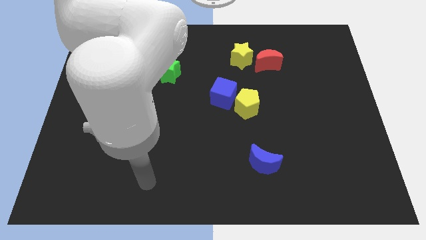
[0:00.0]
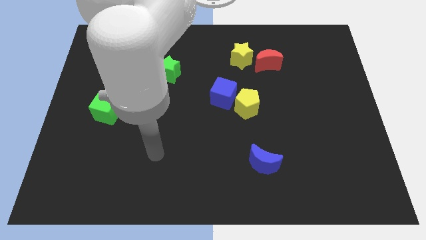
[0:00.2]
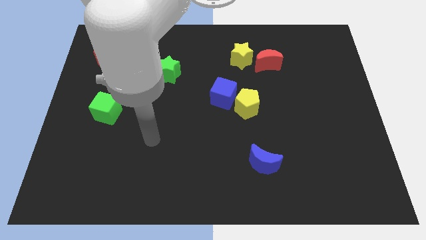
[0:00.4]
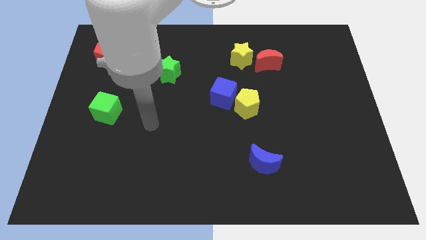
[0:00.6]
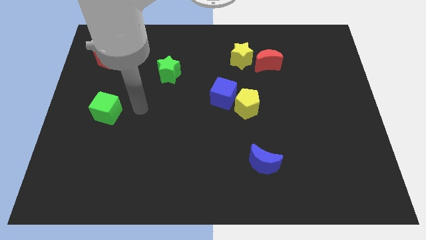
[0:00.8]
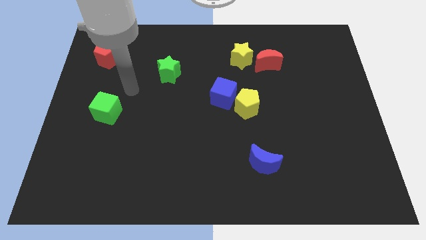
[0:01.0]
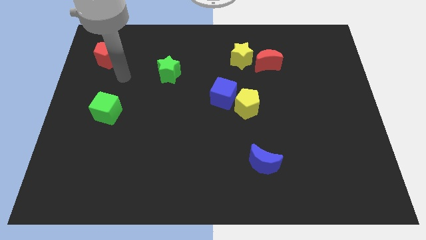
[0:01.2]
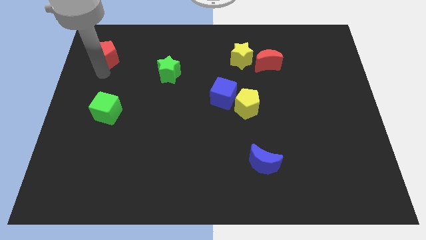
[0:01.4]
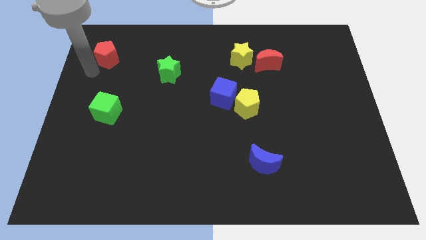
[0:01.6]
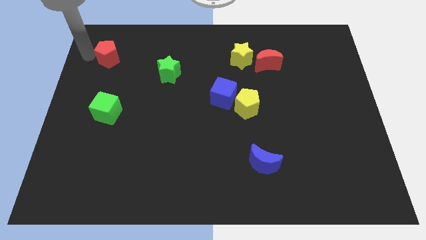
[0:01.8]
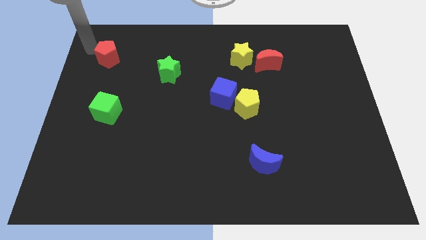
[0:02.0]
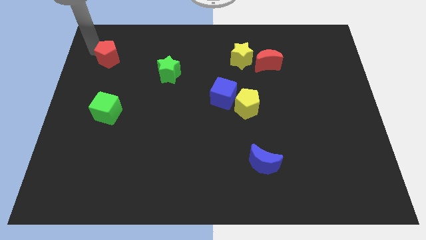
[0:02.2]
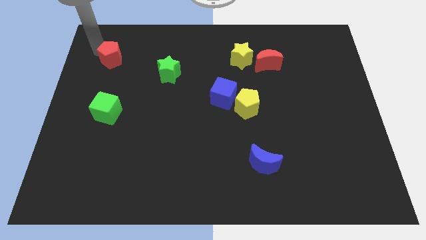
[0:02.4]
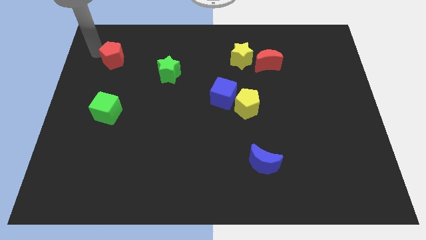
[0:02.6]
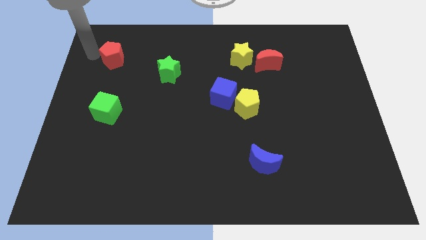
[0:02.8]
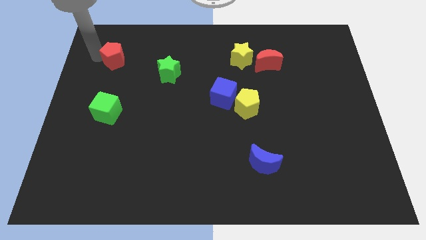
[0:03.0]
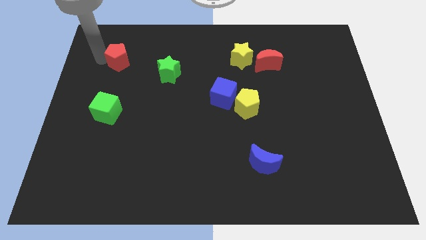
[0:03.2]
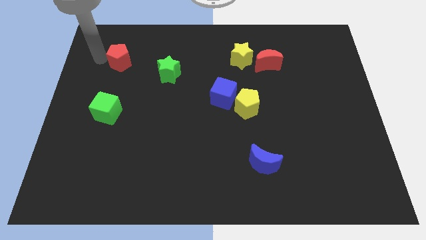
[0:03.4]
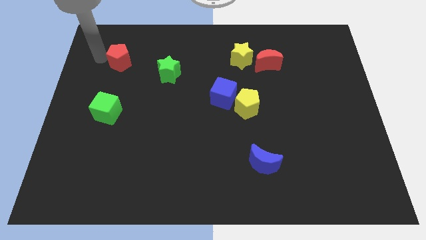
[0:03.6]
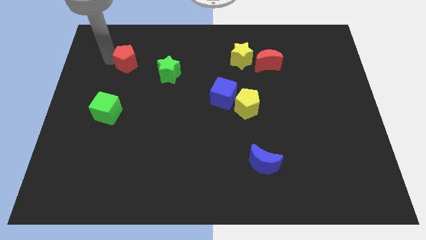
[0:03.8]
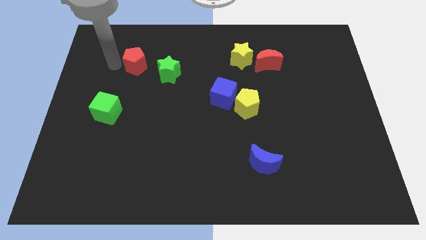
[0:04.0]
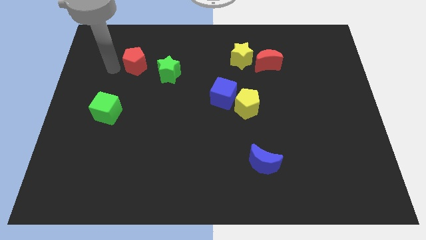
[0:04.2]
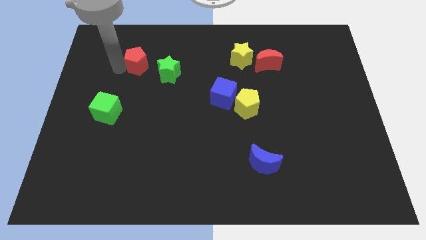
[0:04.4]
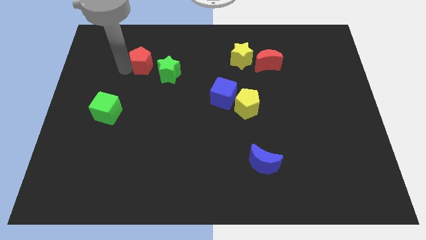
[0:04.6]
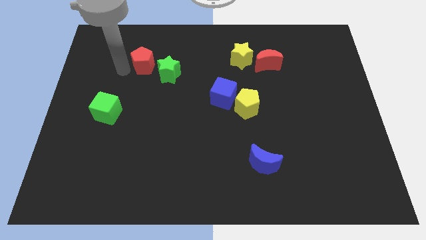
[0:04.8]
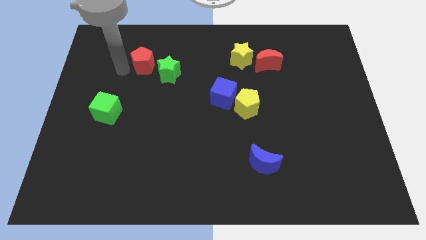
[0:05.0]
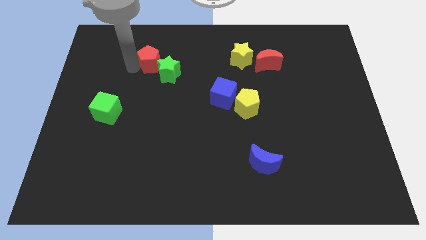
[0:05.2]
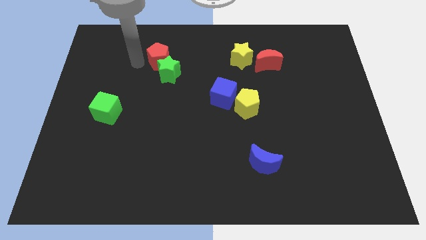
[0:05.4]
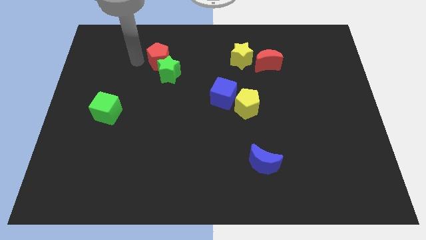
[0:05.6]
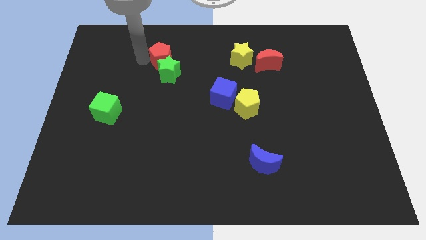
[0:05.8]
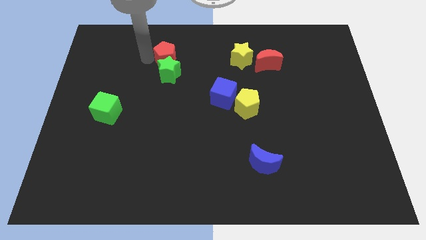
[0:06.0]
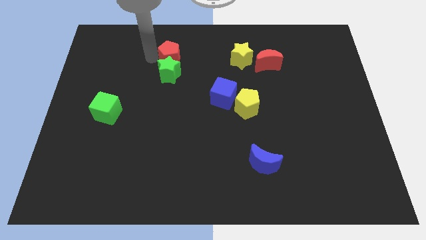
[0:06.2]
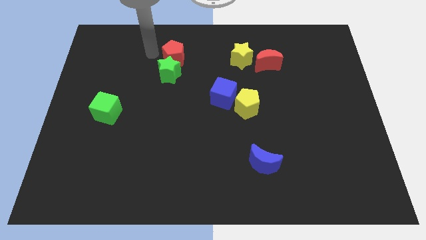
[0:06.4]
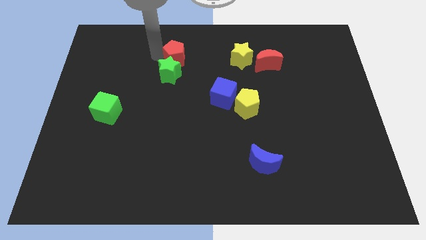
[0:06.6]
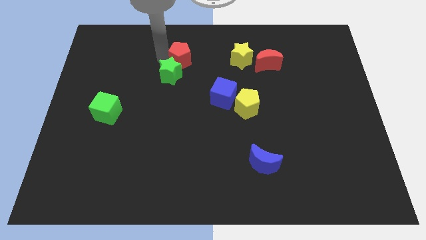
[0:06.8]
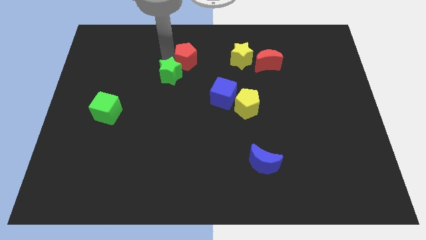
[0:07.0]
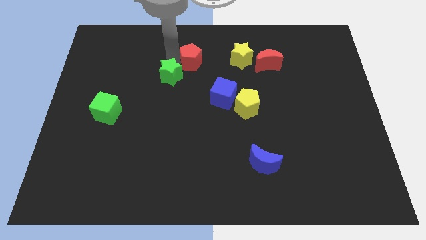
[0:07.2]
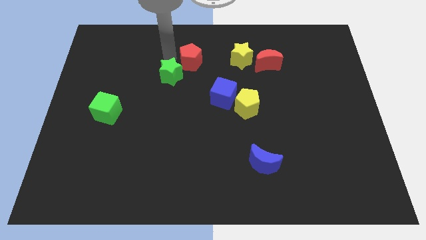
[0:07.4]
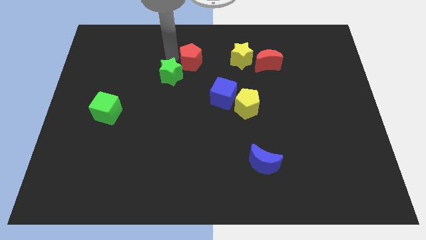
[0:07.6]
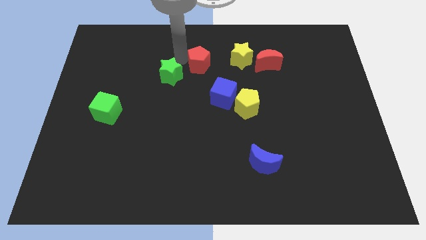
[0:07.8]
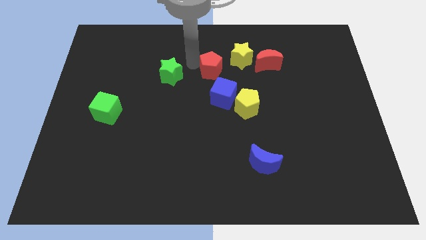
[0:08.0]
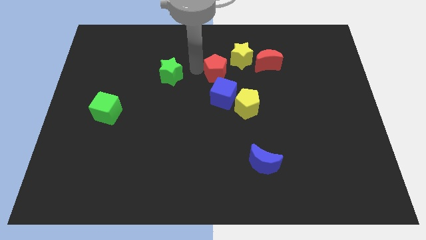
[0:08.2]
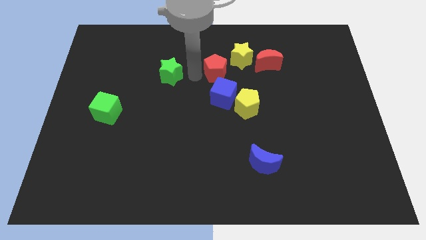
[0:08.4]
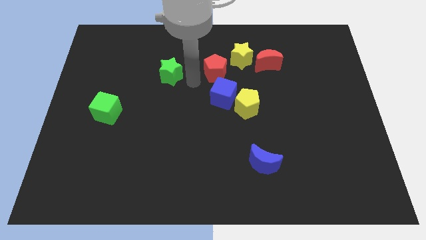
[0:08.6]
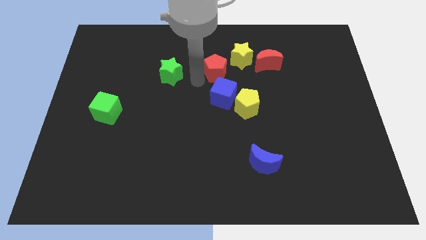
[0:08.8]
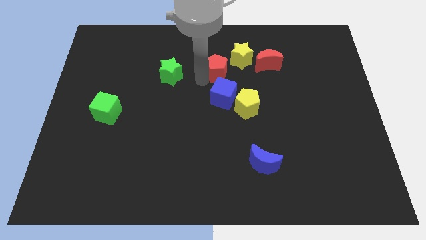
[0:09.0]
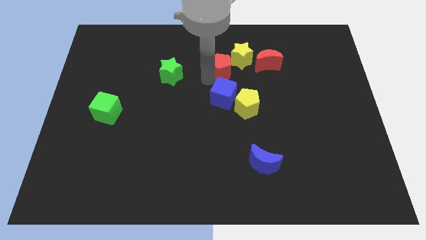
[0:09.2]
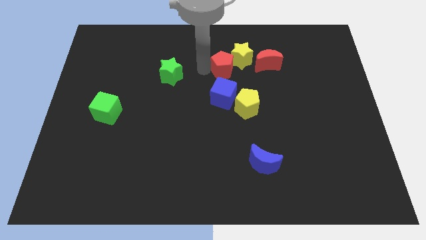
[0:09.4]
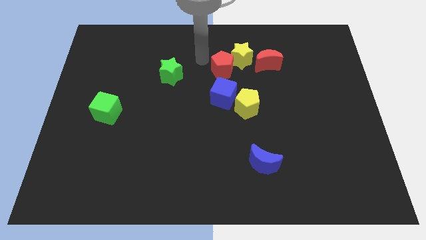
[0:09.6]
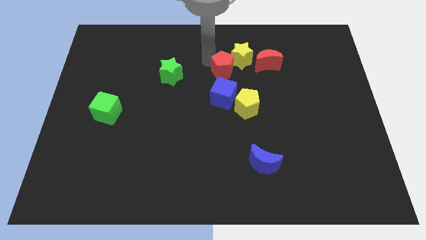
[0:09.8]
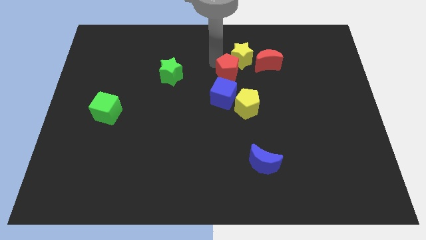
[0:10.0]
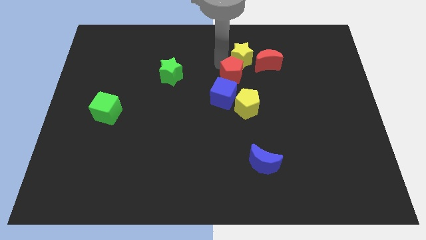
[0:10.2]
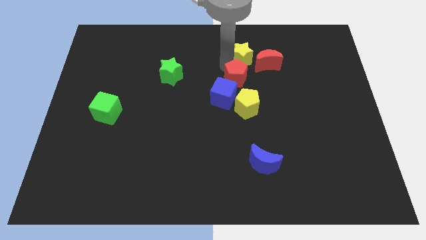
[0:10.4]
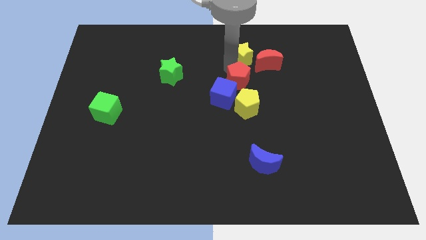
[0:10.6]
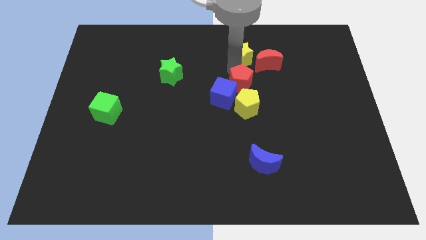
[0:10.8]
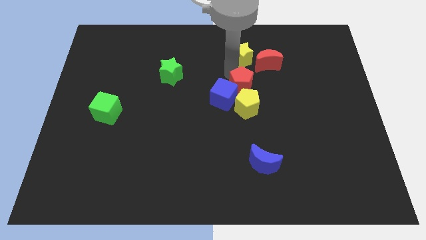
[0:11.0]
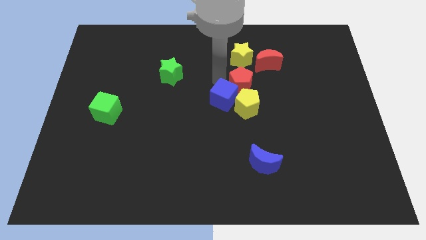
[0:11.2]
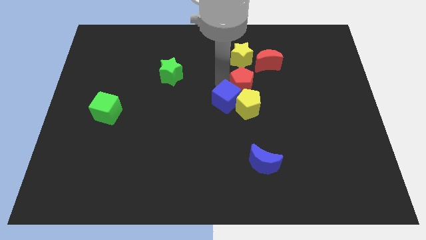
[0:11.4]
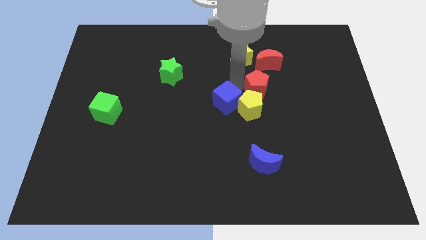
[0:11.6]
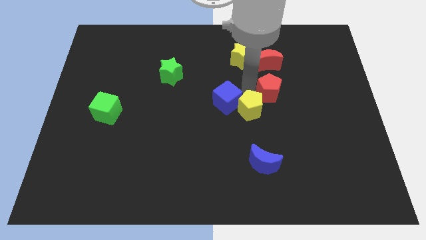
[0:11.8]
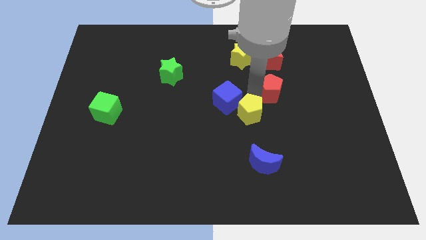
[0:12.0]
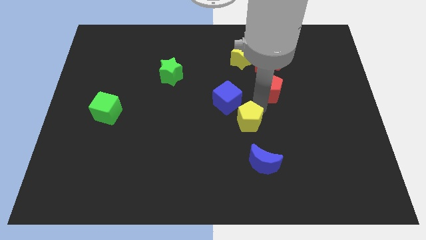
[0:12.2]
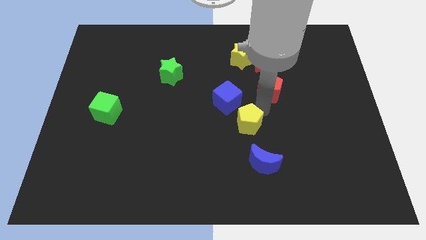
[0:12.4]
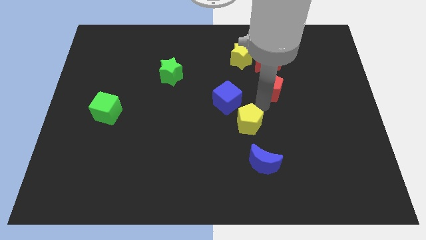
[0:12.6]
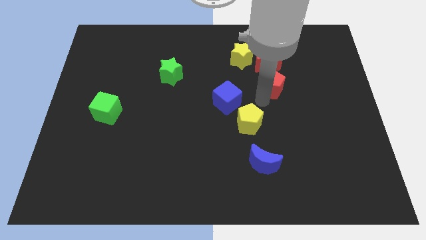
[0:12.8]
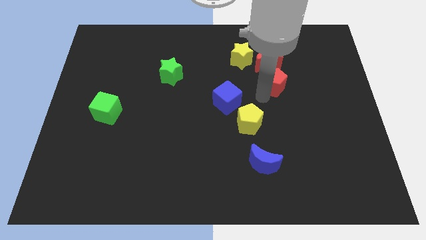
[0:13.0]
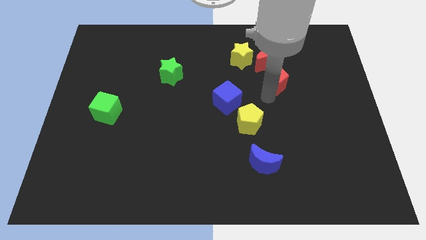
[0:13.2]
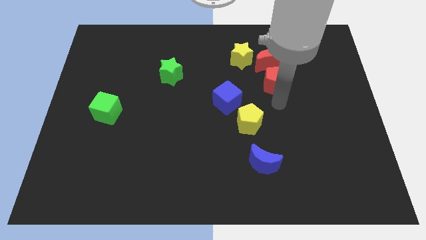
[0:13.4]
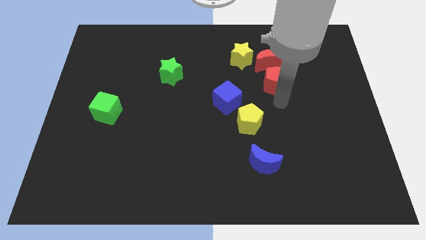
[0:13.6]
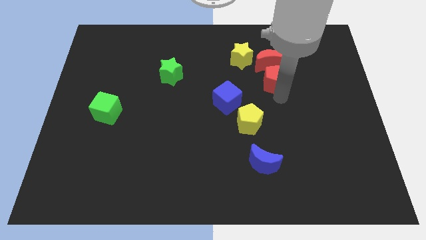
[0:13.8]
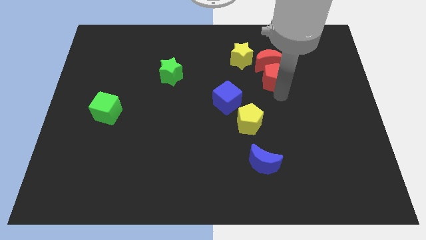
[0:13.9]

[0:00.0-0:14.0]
slide the red pentagon next to the red moon
